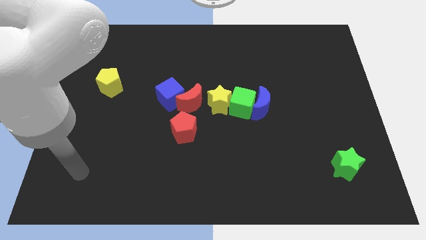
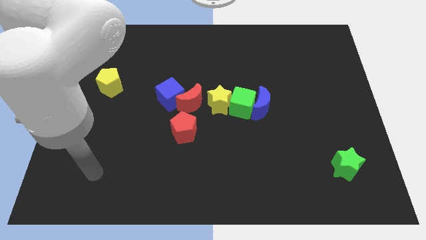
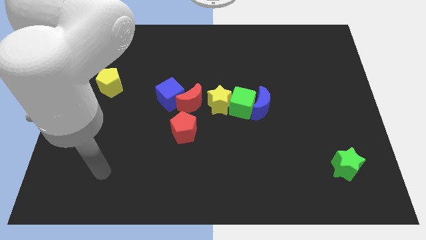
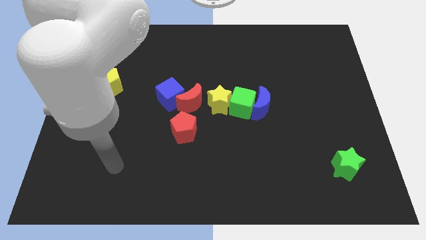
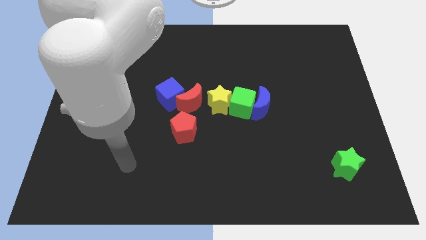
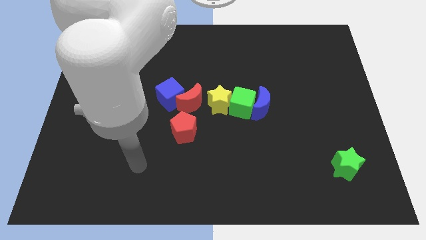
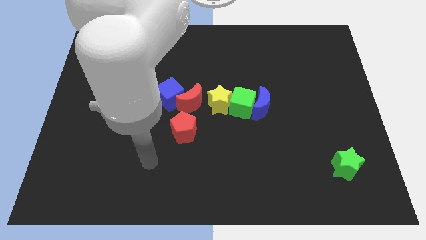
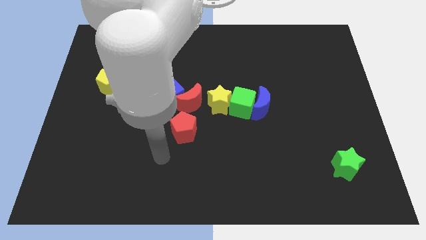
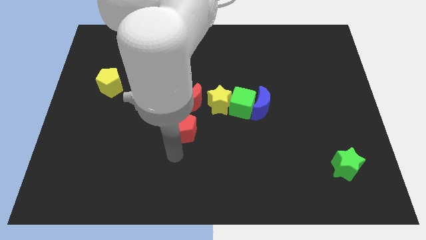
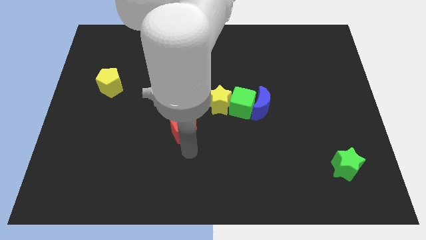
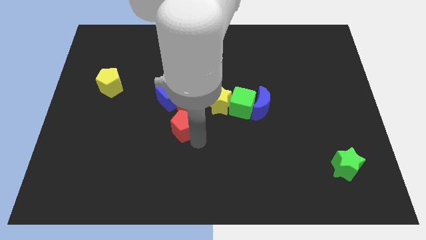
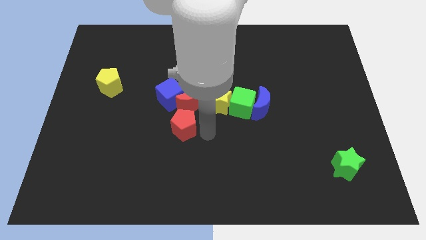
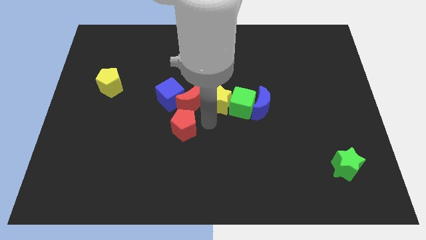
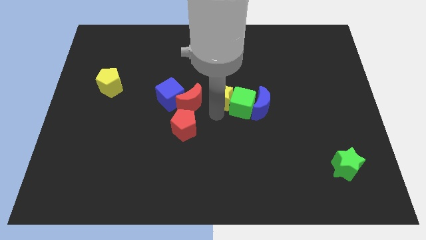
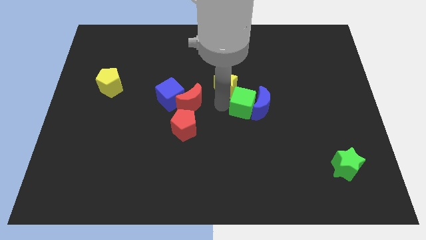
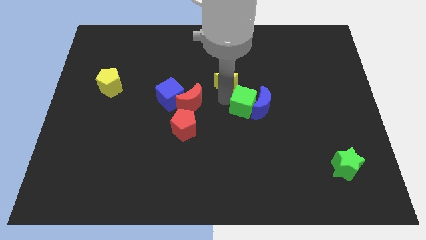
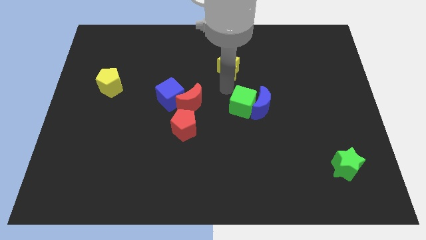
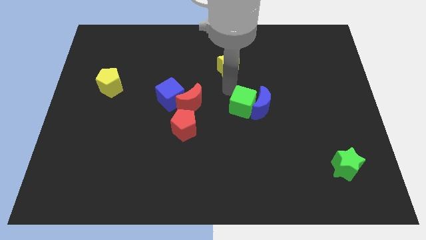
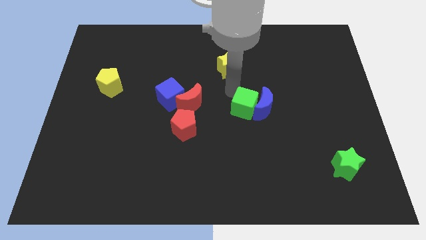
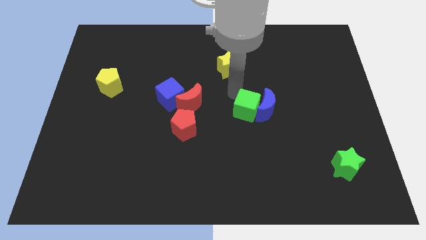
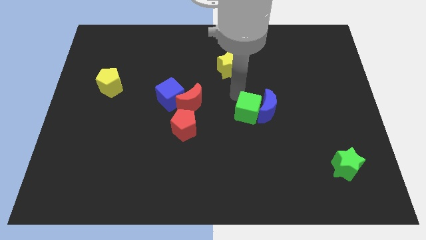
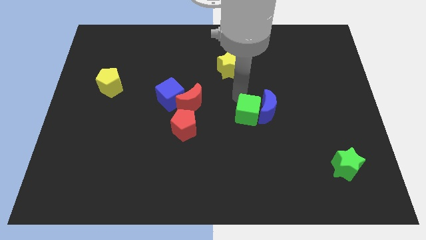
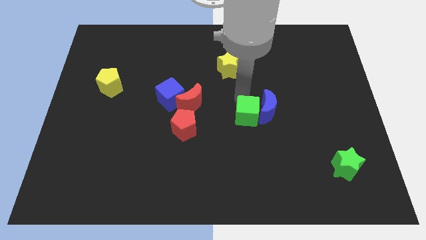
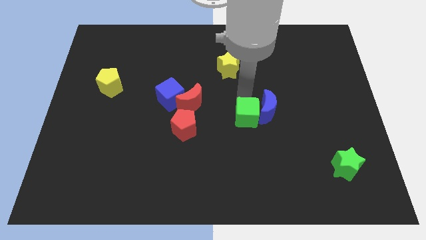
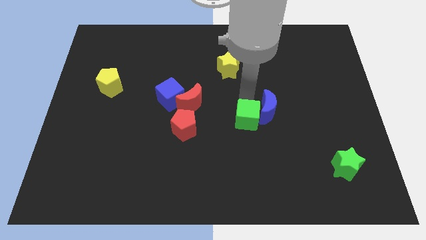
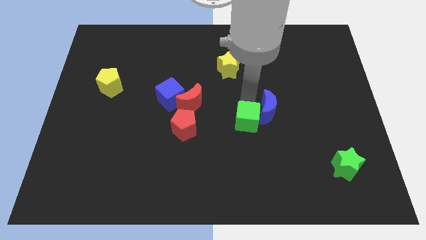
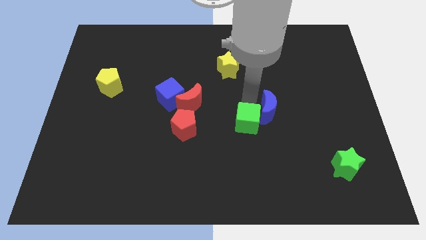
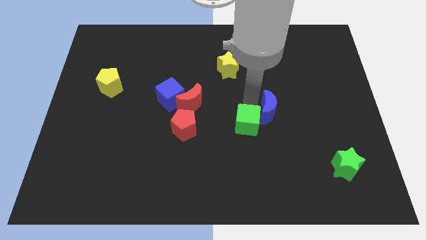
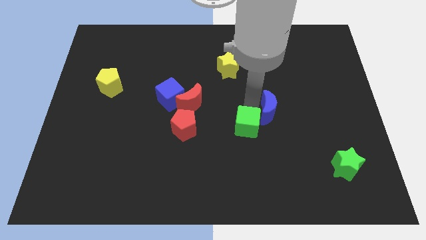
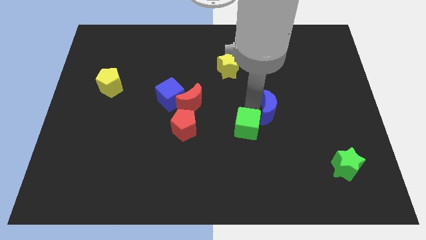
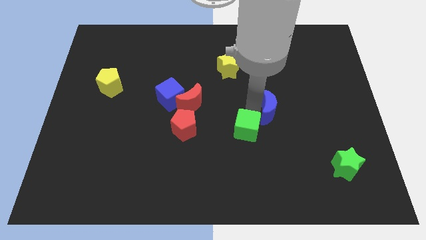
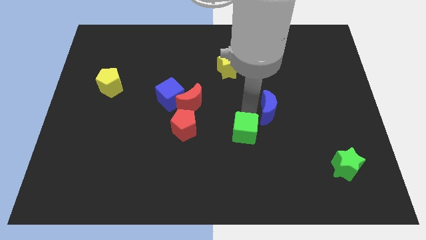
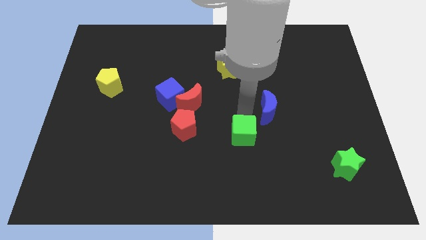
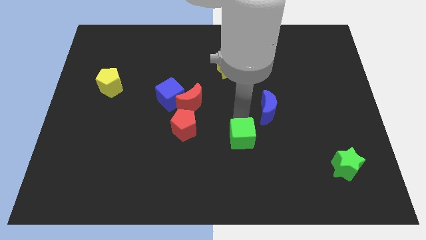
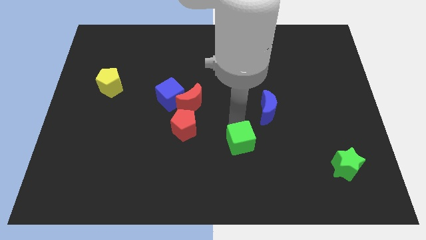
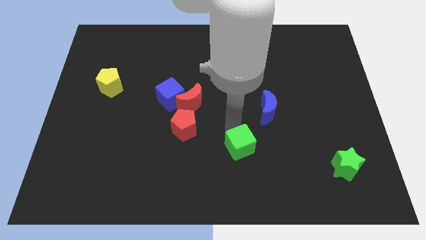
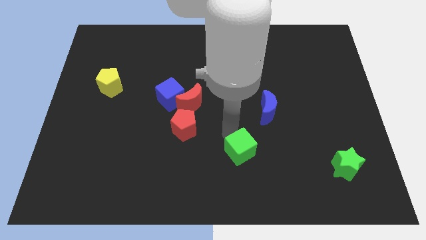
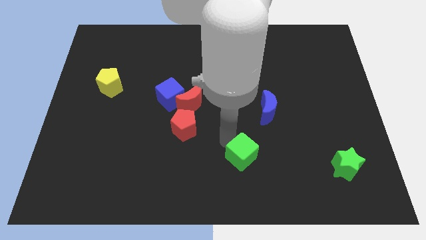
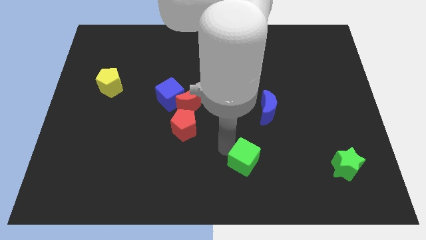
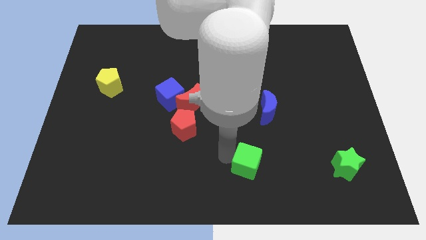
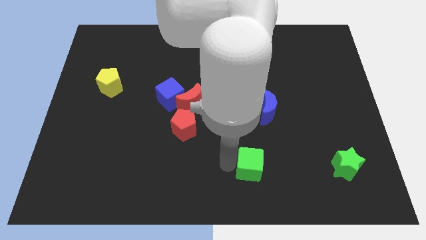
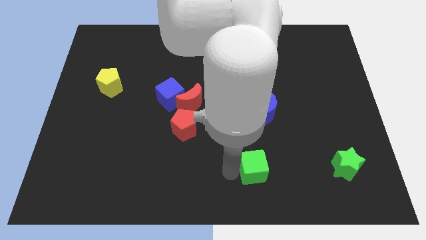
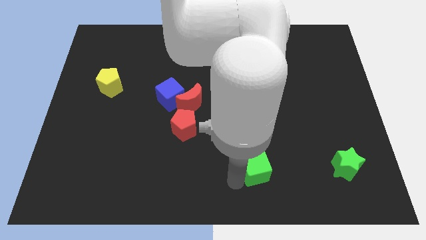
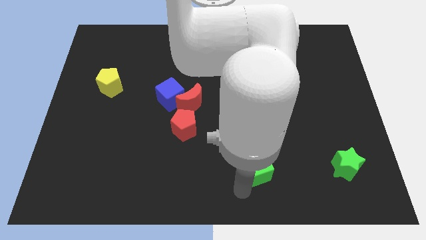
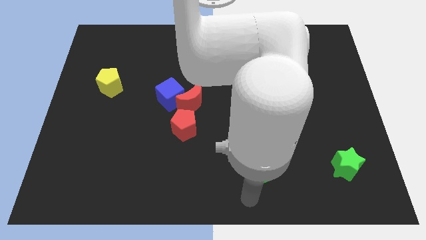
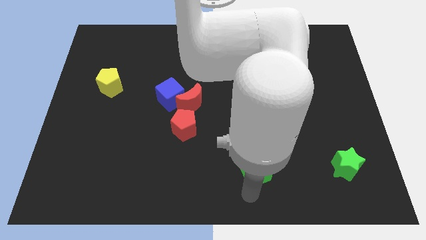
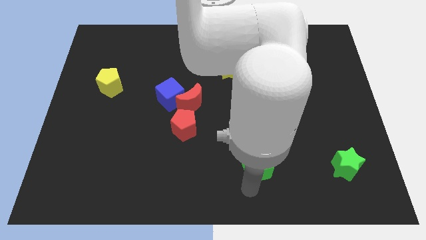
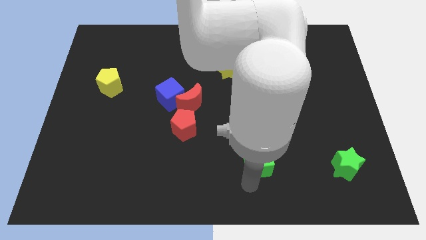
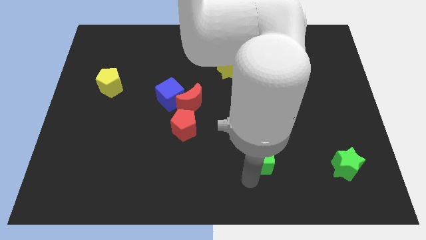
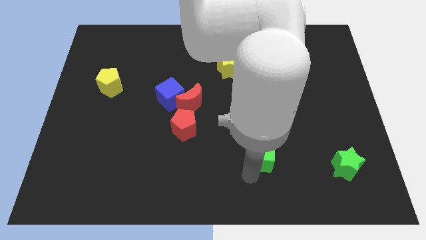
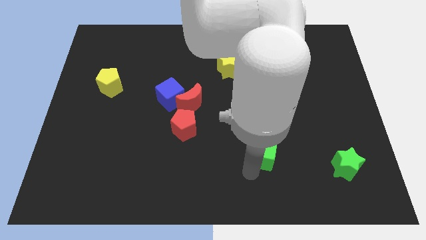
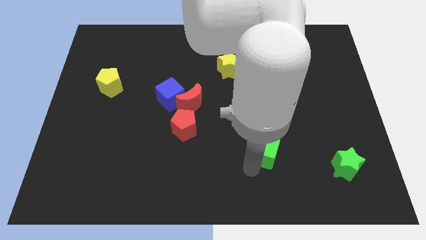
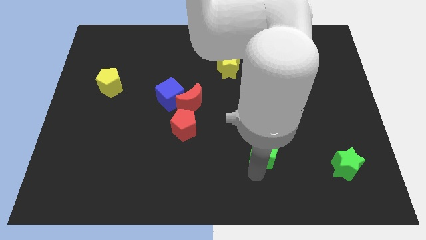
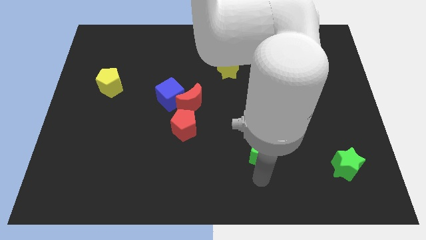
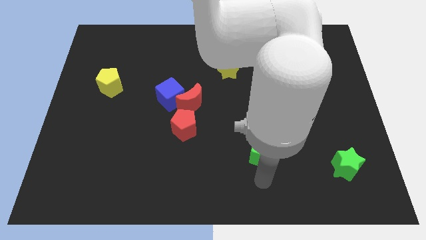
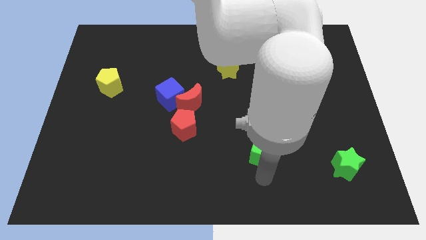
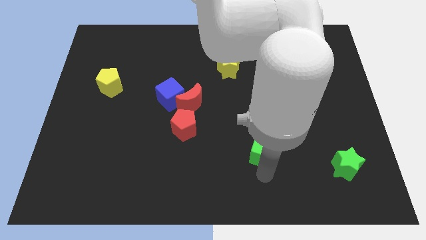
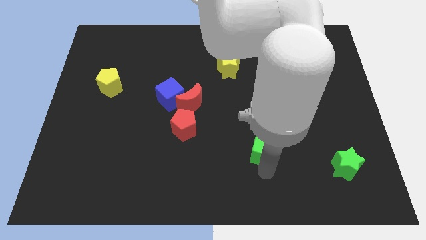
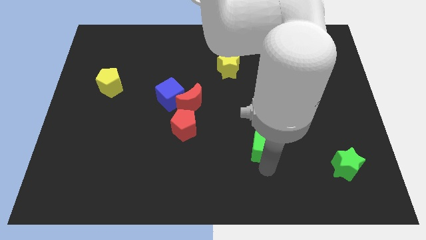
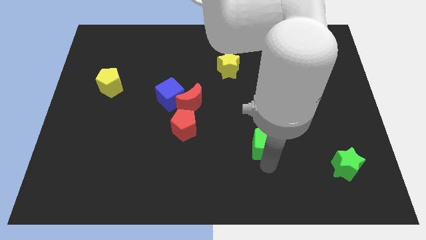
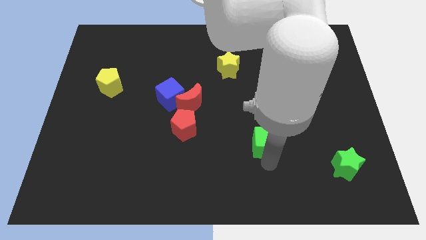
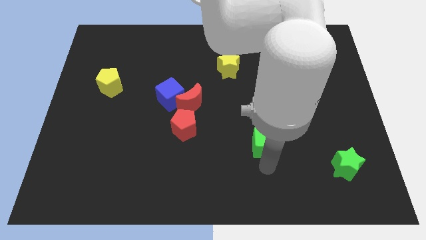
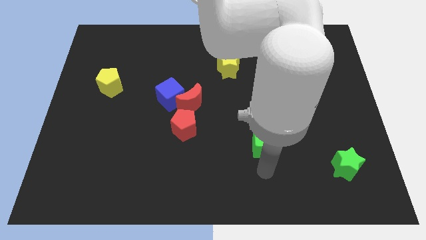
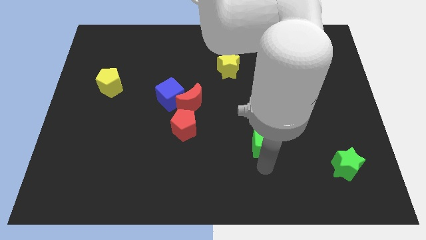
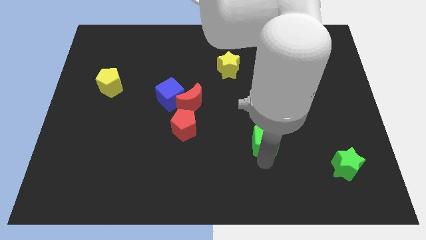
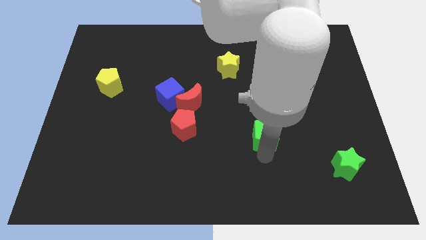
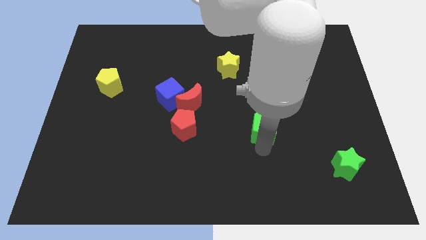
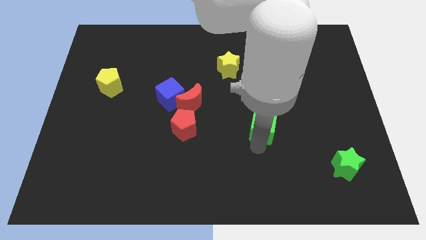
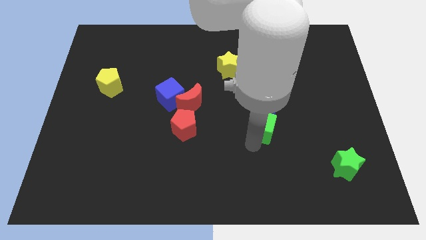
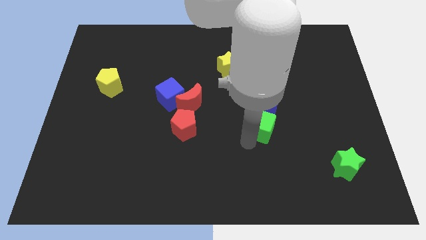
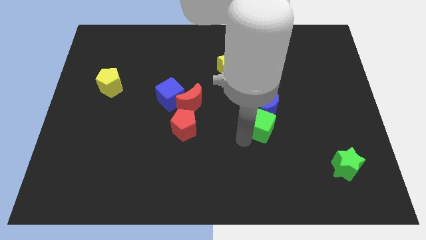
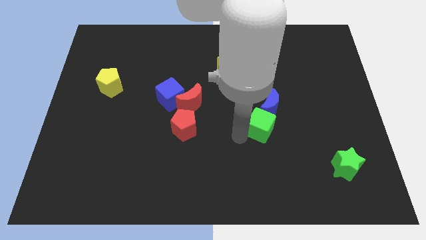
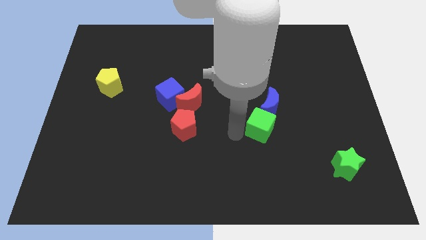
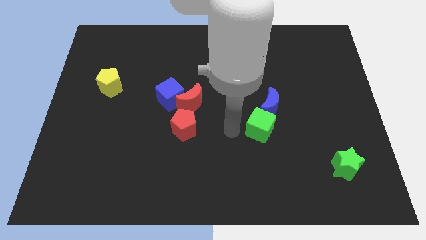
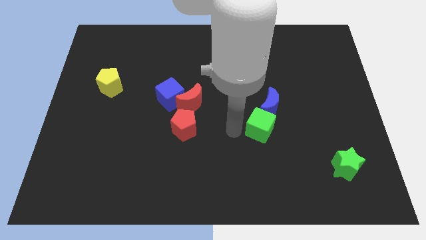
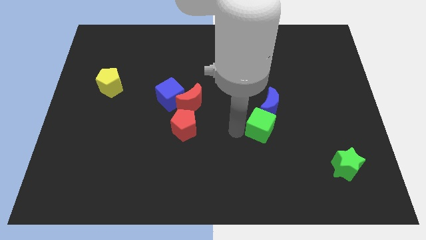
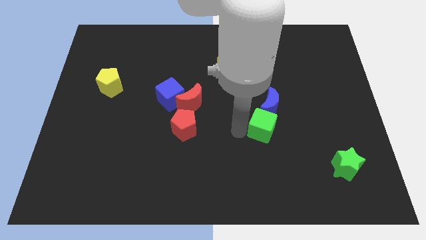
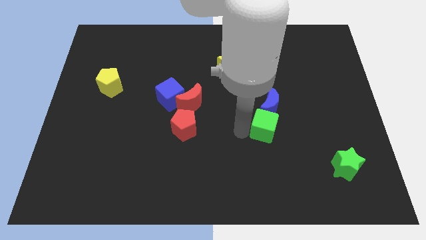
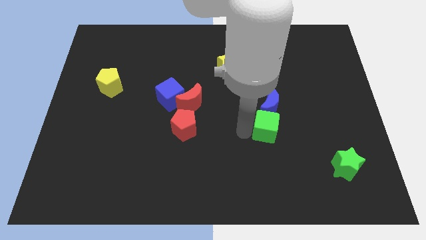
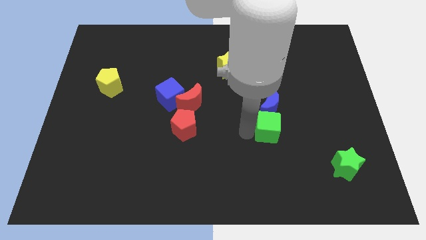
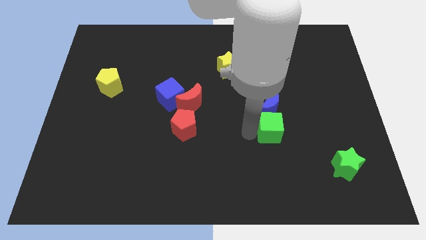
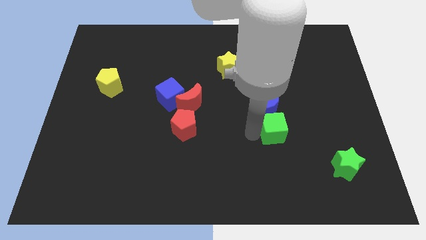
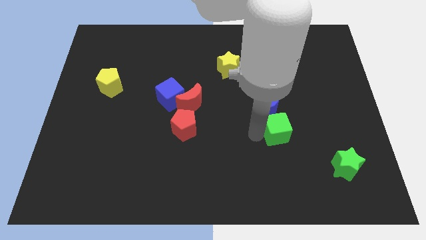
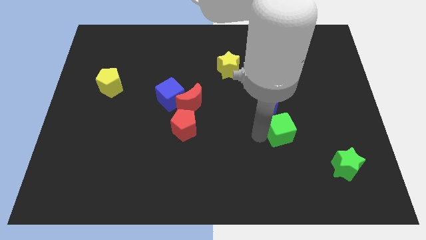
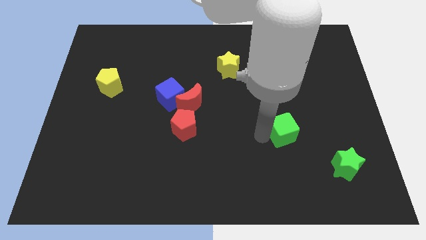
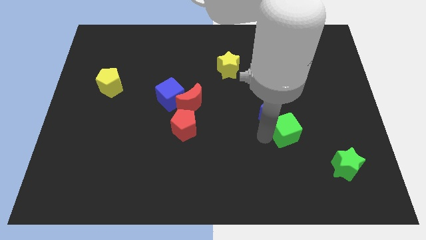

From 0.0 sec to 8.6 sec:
push the green cube to the right a little
